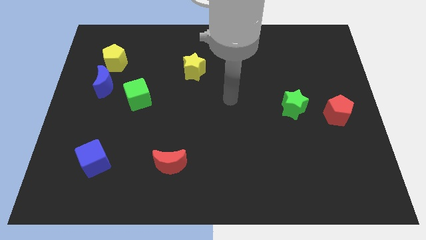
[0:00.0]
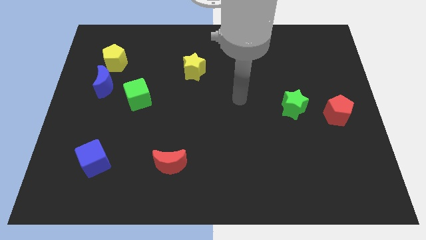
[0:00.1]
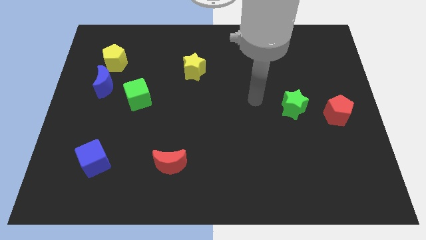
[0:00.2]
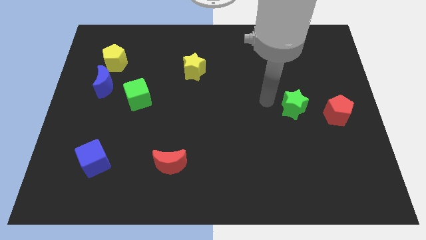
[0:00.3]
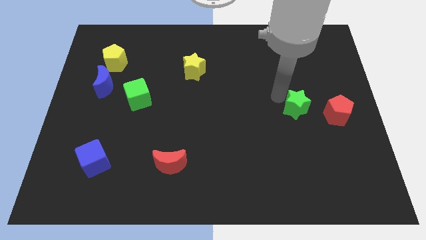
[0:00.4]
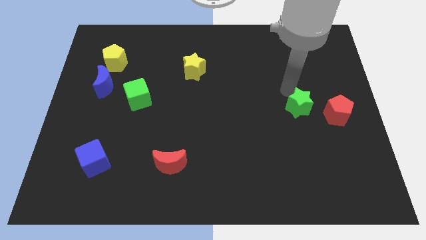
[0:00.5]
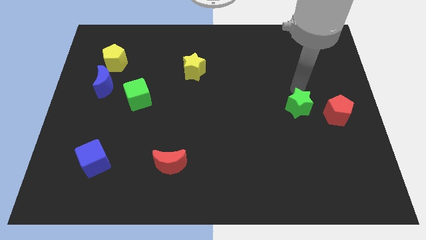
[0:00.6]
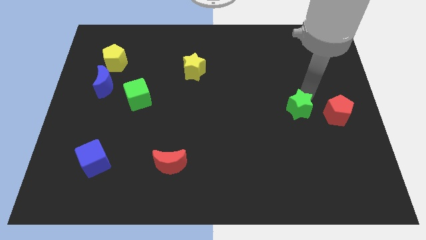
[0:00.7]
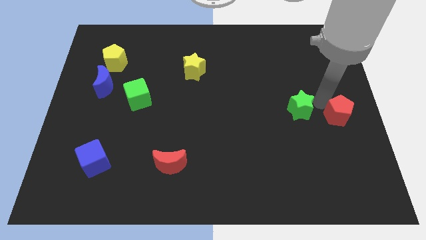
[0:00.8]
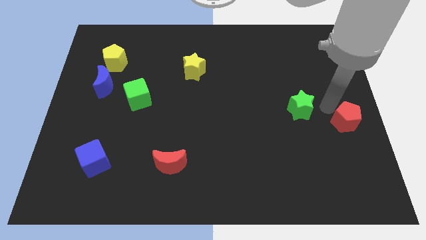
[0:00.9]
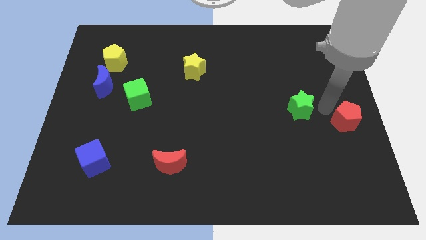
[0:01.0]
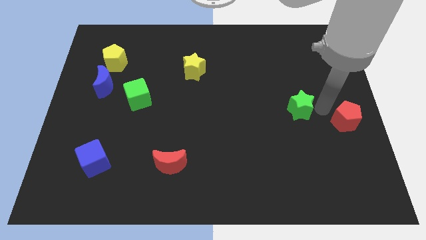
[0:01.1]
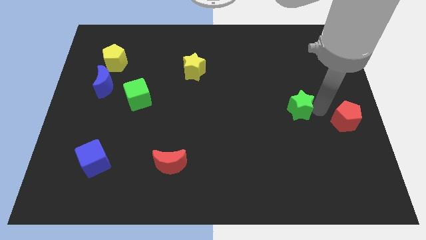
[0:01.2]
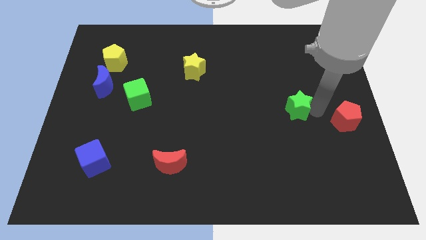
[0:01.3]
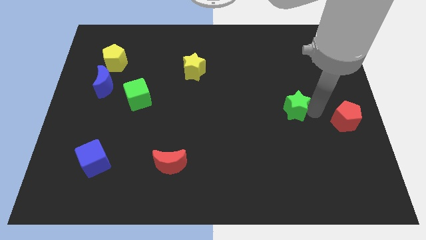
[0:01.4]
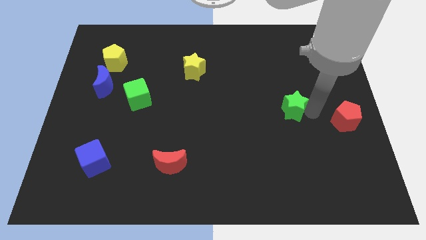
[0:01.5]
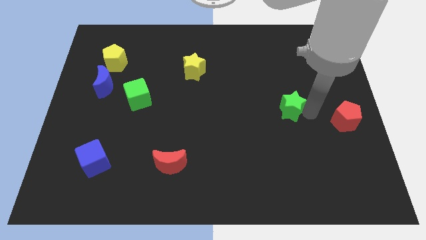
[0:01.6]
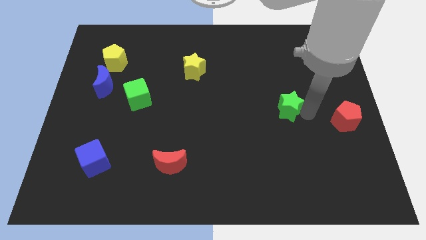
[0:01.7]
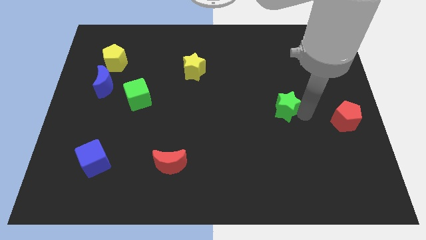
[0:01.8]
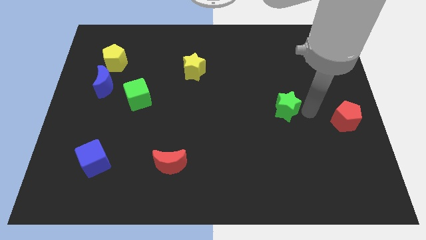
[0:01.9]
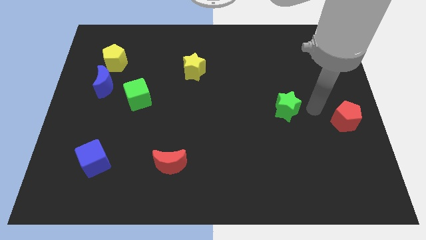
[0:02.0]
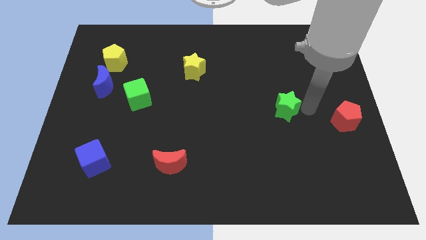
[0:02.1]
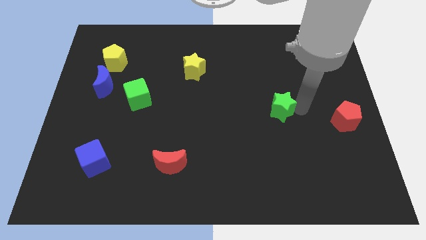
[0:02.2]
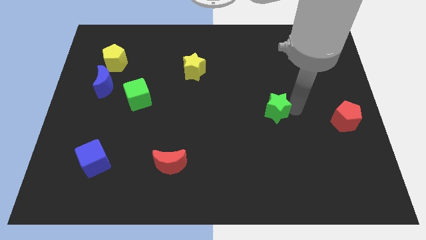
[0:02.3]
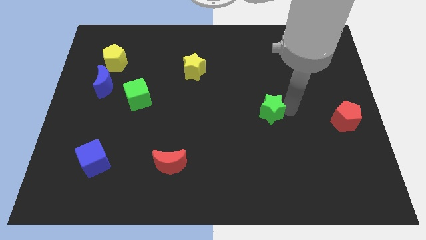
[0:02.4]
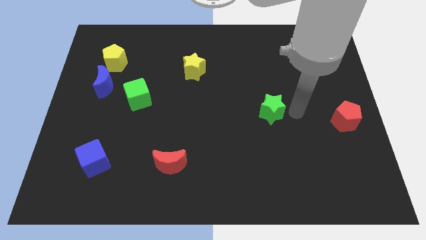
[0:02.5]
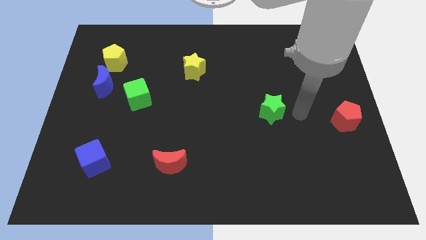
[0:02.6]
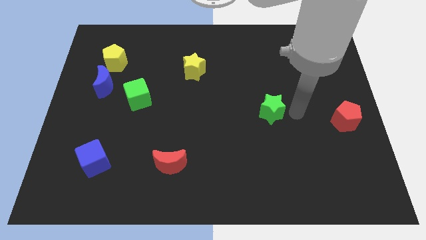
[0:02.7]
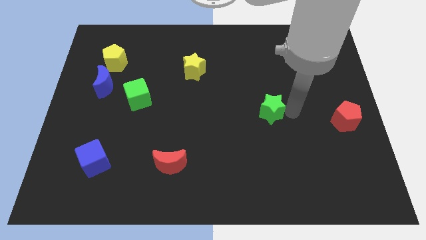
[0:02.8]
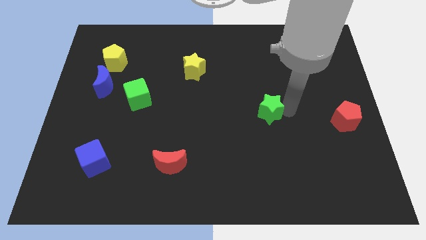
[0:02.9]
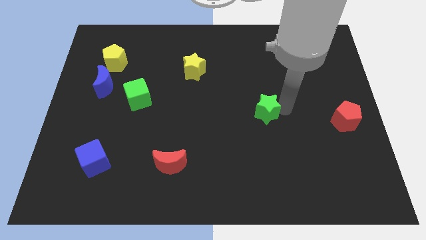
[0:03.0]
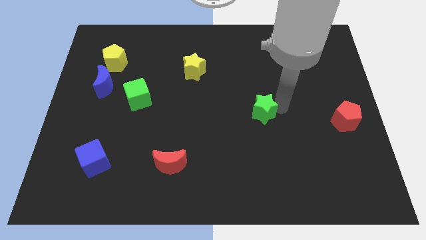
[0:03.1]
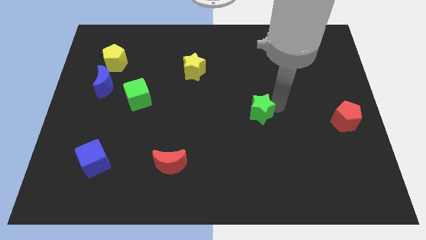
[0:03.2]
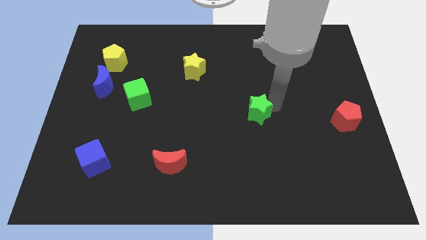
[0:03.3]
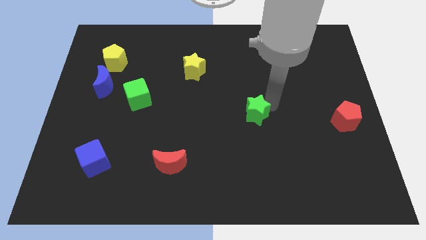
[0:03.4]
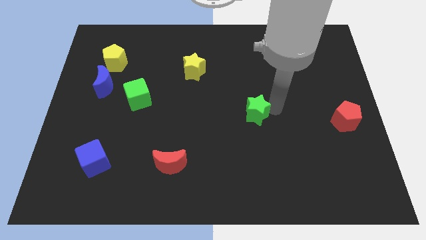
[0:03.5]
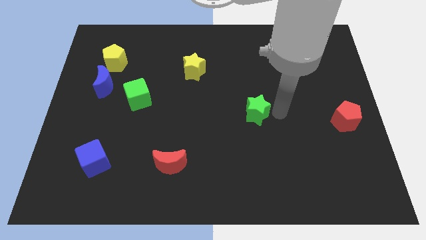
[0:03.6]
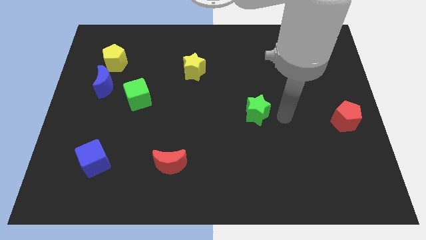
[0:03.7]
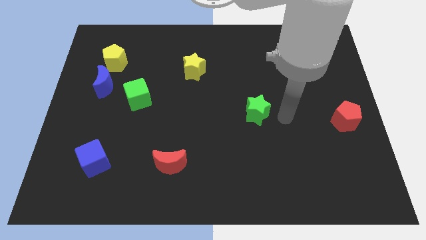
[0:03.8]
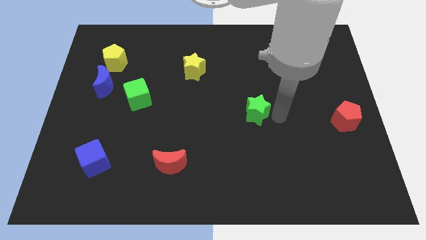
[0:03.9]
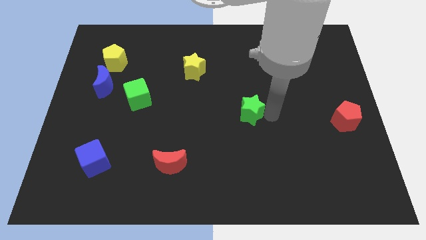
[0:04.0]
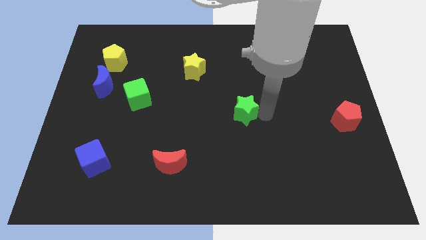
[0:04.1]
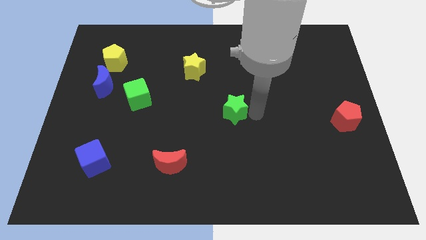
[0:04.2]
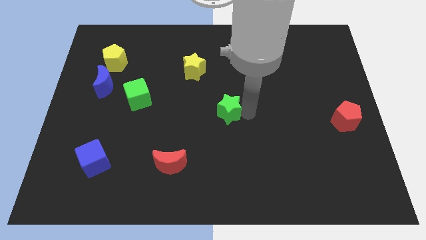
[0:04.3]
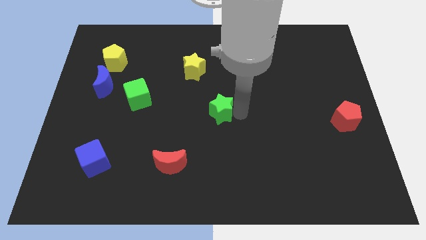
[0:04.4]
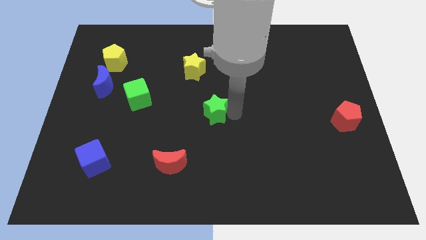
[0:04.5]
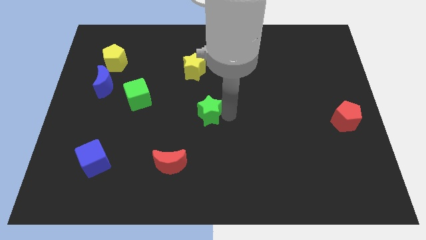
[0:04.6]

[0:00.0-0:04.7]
push the green star below the yellow star

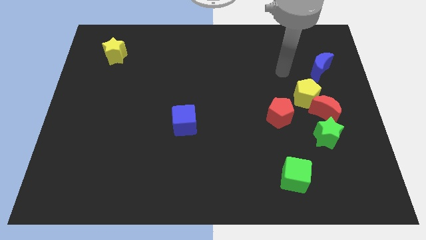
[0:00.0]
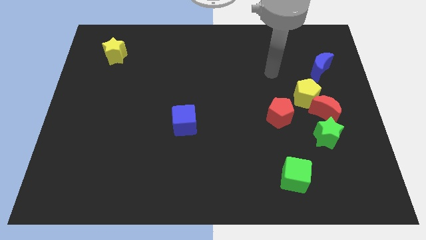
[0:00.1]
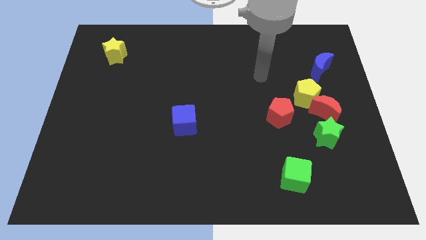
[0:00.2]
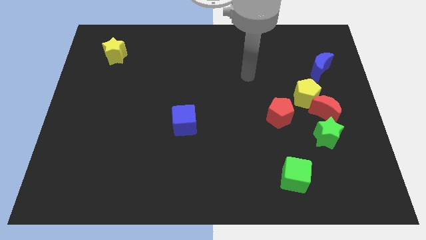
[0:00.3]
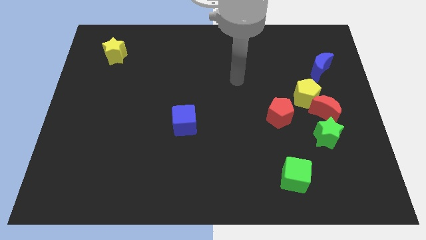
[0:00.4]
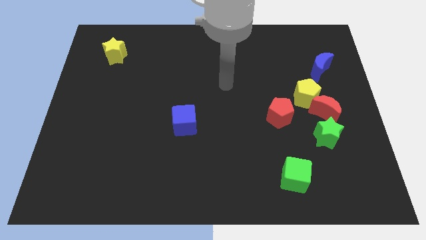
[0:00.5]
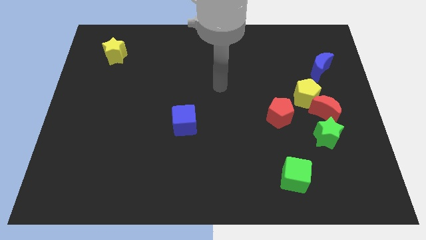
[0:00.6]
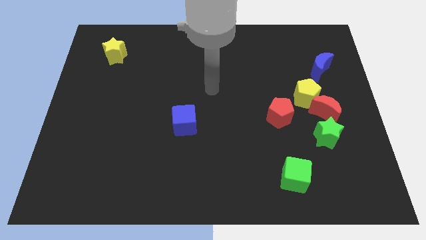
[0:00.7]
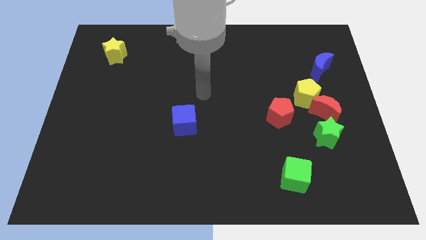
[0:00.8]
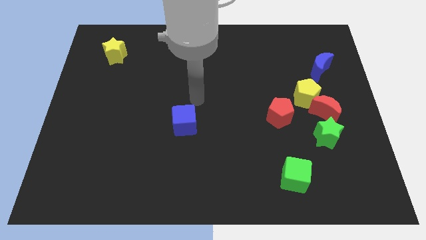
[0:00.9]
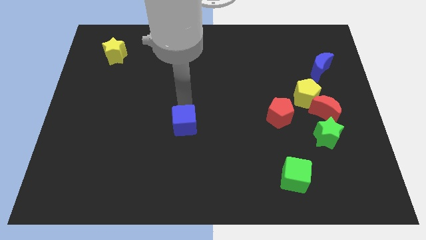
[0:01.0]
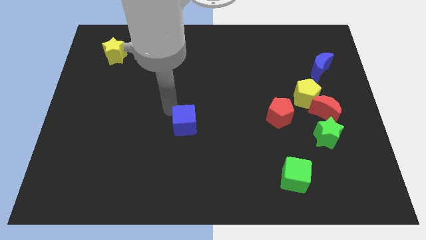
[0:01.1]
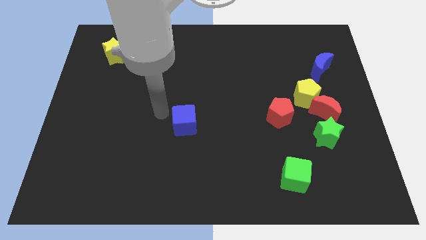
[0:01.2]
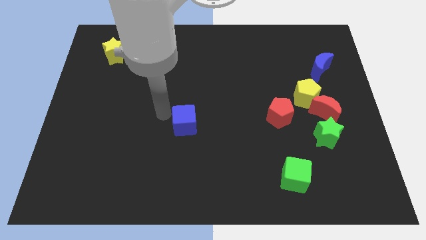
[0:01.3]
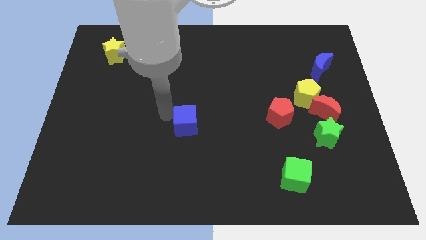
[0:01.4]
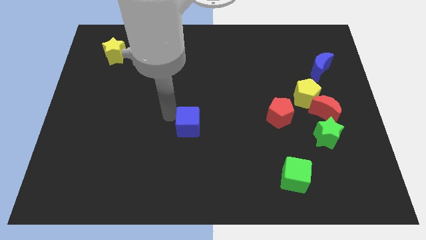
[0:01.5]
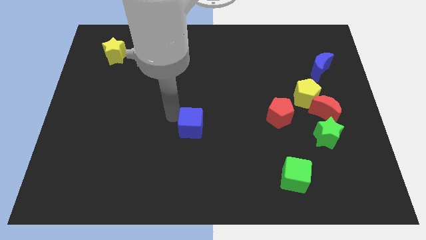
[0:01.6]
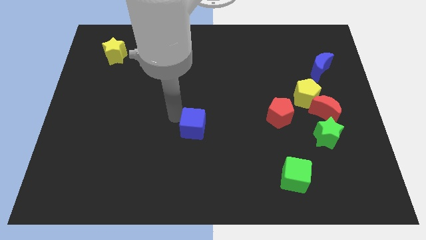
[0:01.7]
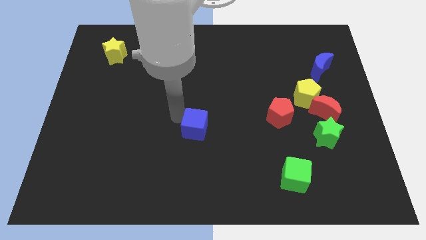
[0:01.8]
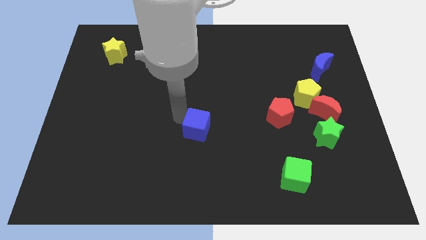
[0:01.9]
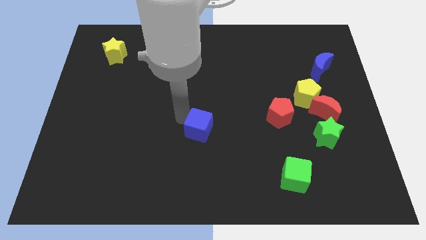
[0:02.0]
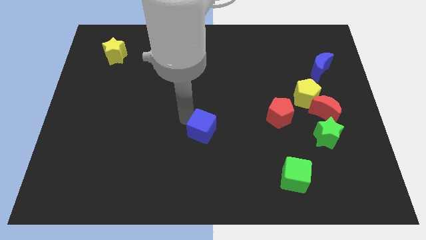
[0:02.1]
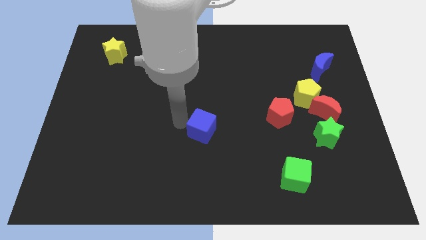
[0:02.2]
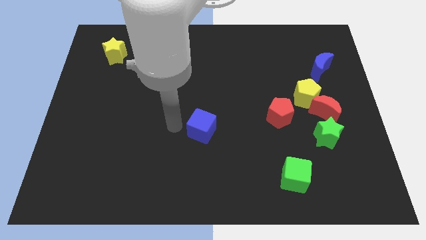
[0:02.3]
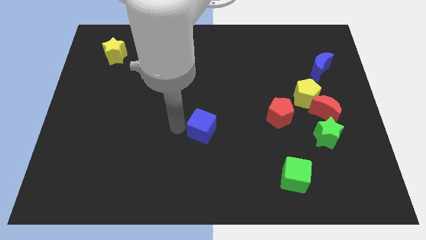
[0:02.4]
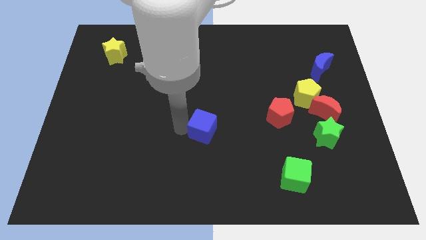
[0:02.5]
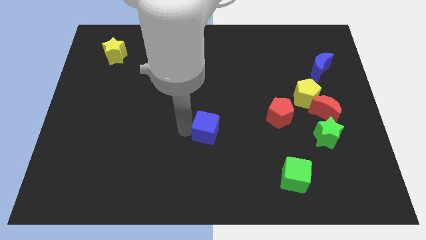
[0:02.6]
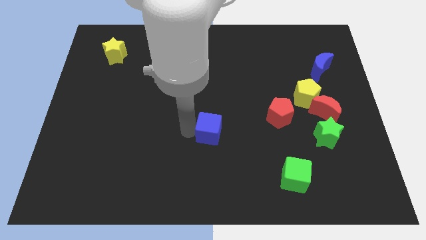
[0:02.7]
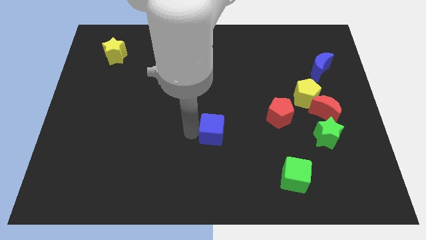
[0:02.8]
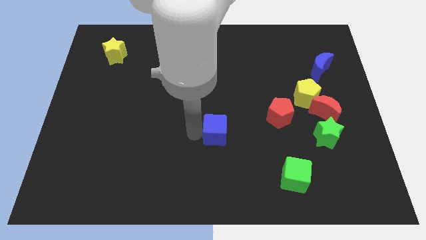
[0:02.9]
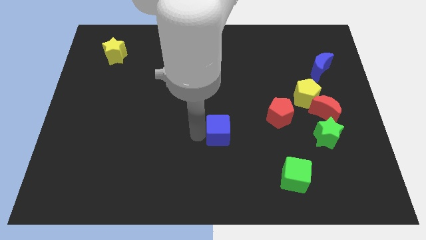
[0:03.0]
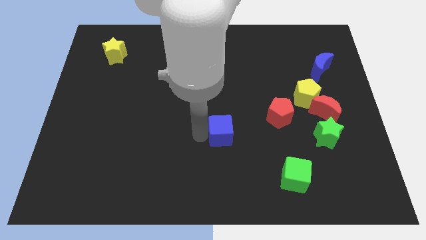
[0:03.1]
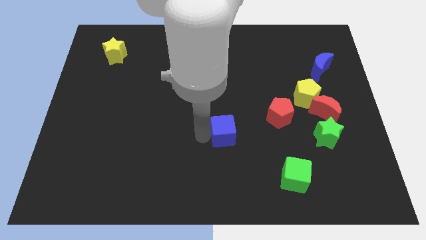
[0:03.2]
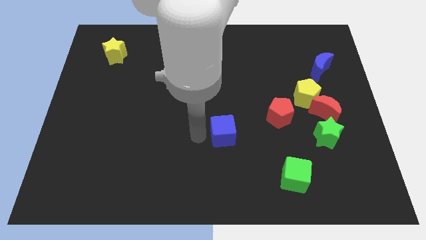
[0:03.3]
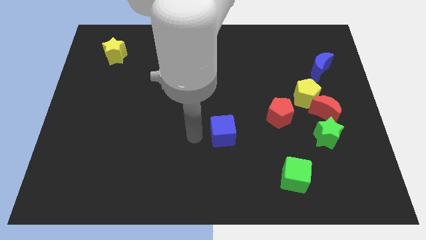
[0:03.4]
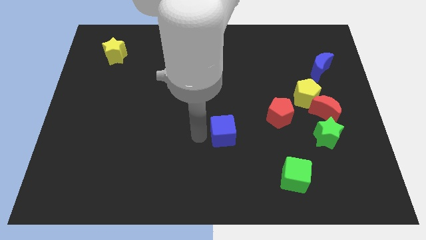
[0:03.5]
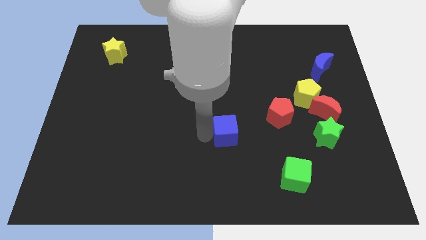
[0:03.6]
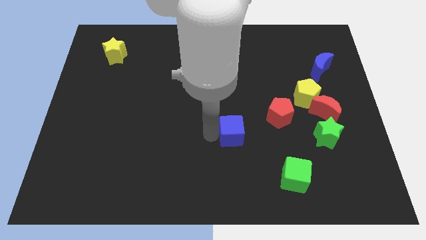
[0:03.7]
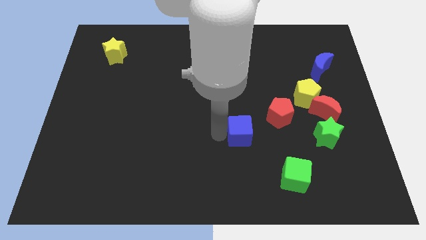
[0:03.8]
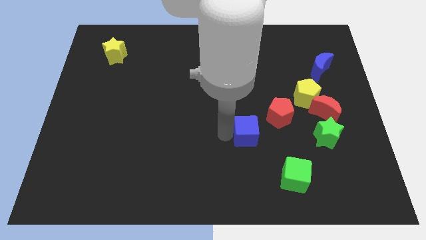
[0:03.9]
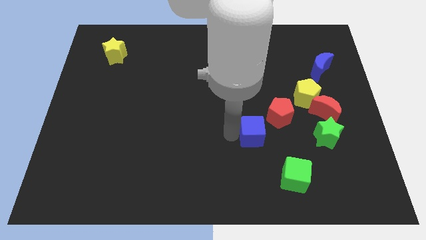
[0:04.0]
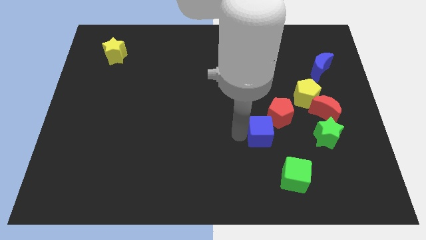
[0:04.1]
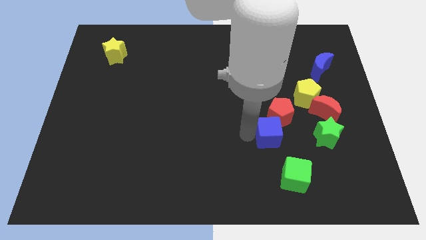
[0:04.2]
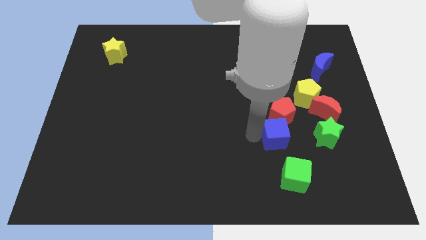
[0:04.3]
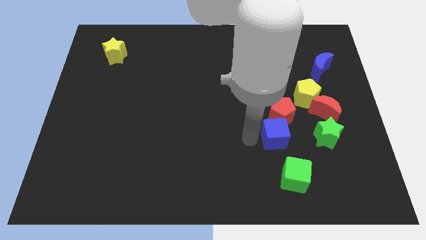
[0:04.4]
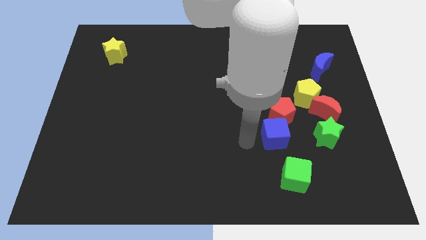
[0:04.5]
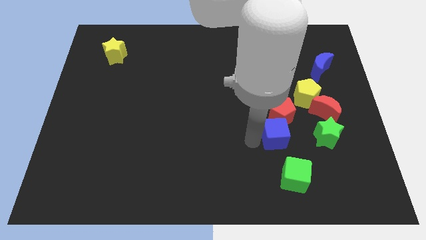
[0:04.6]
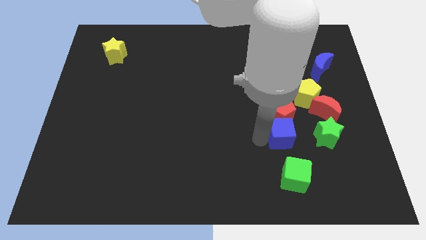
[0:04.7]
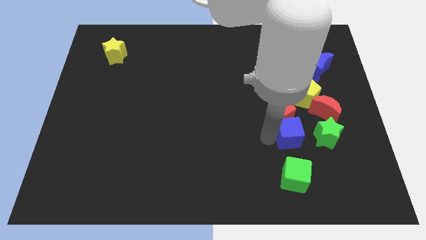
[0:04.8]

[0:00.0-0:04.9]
push the blue cube to the bottom left side of the red moon
